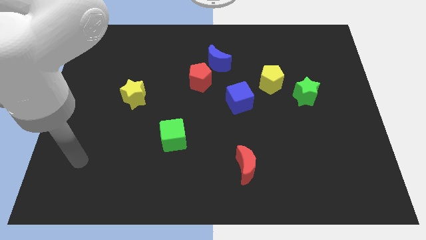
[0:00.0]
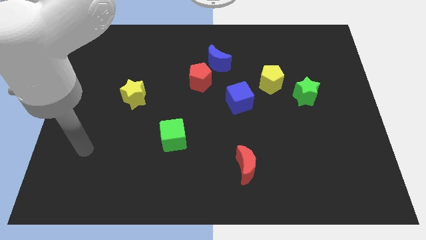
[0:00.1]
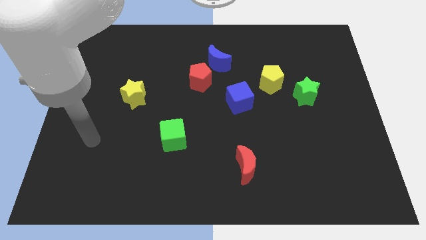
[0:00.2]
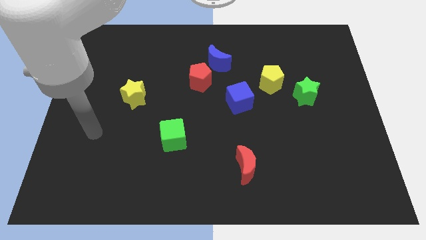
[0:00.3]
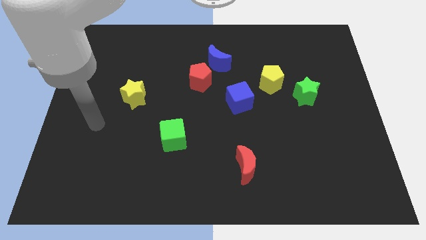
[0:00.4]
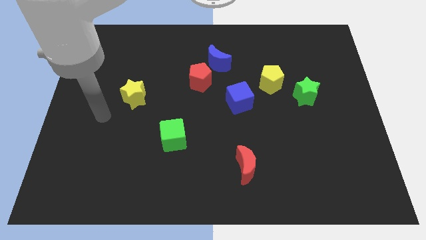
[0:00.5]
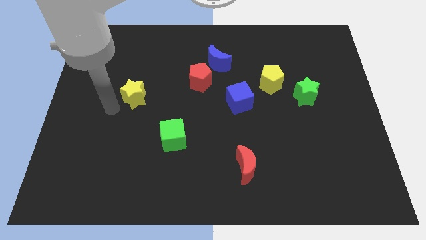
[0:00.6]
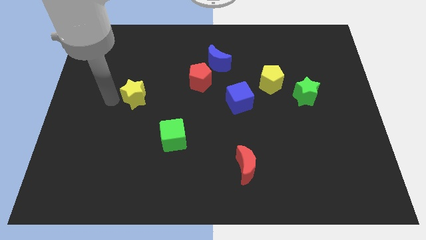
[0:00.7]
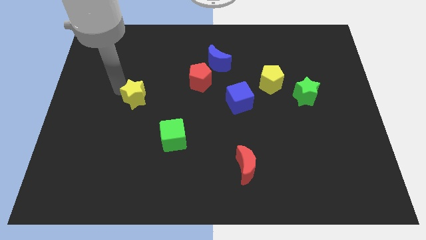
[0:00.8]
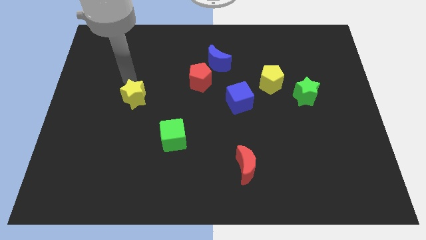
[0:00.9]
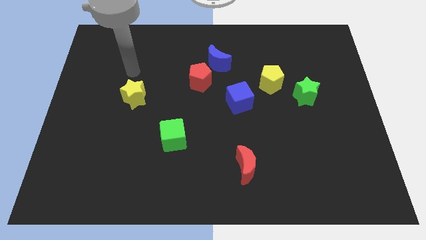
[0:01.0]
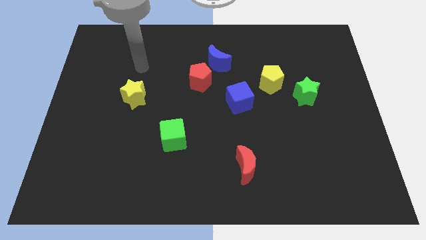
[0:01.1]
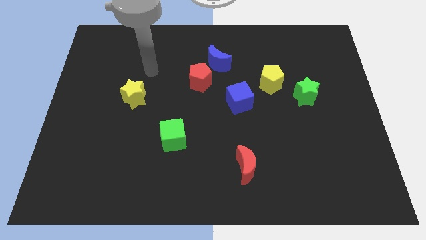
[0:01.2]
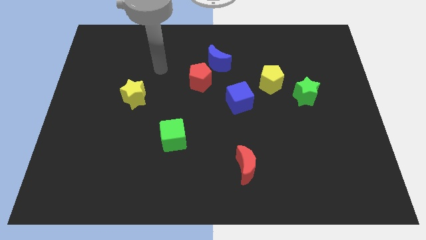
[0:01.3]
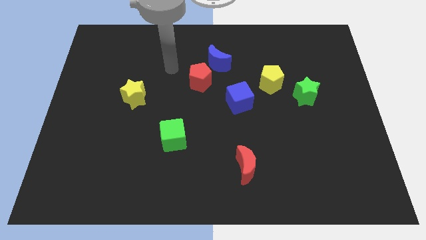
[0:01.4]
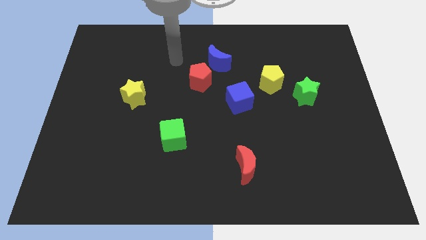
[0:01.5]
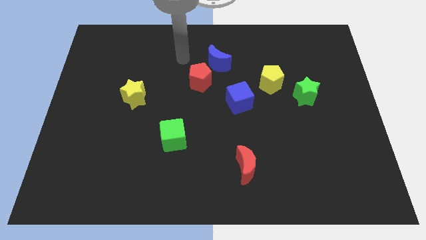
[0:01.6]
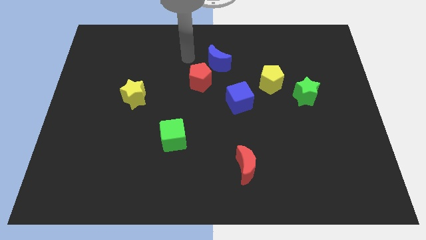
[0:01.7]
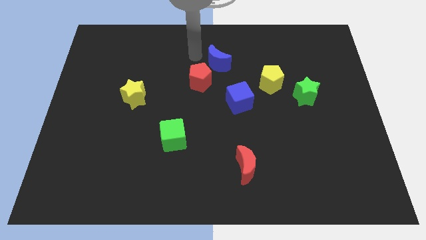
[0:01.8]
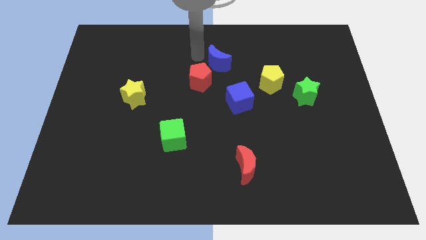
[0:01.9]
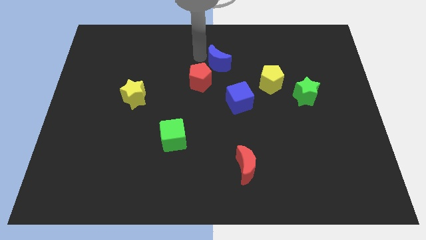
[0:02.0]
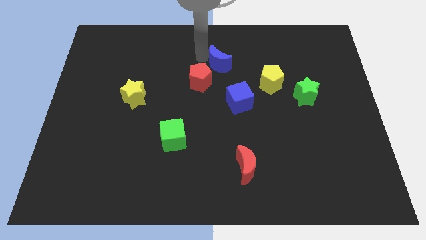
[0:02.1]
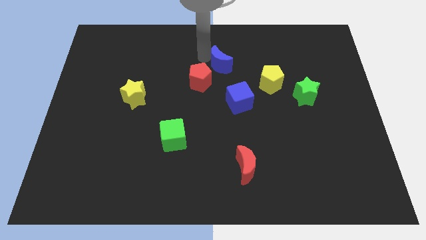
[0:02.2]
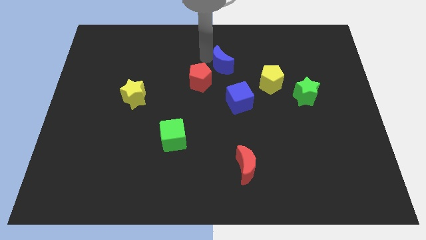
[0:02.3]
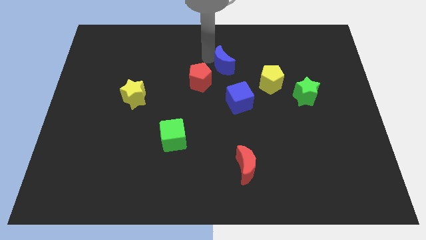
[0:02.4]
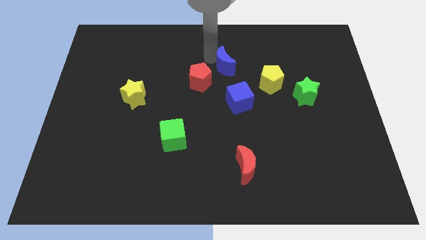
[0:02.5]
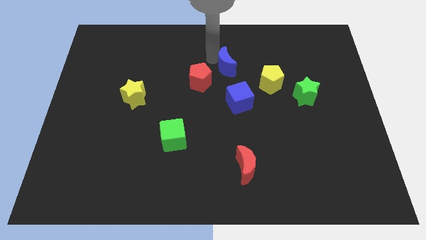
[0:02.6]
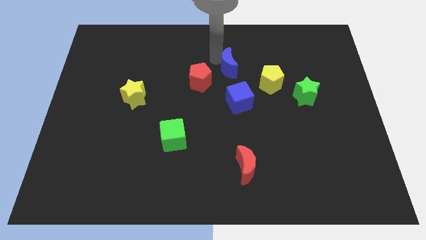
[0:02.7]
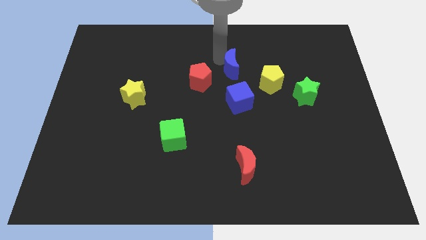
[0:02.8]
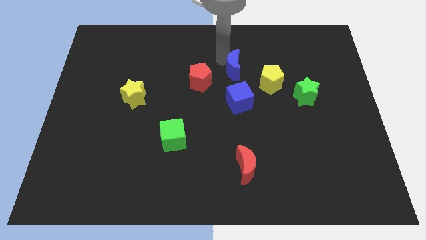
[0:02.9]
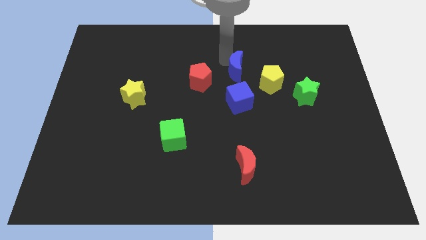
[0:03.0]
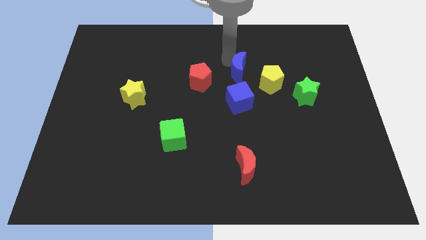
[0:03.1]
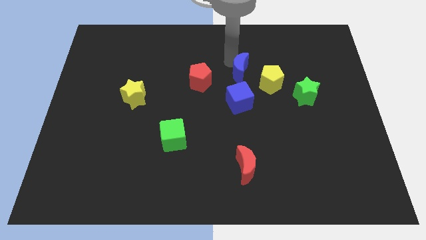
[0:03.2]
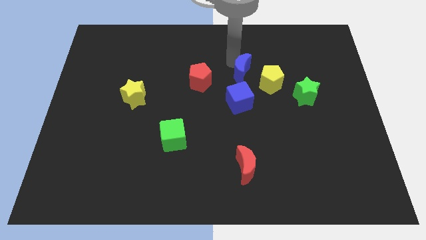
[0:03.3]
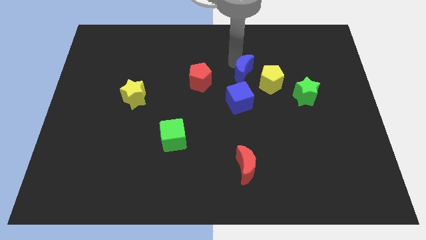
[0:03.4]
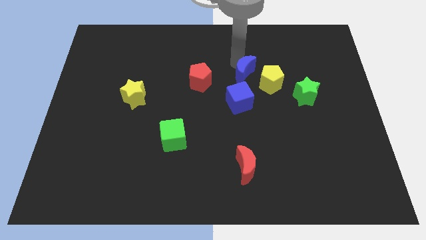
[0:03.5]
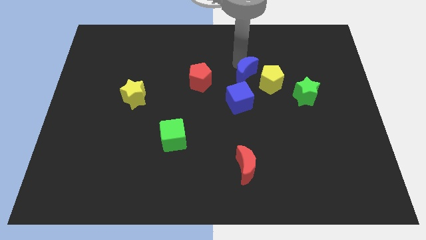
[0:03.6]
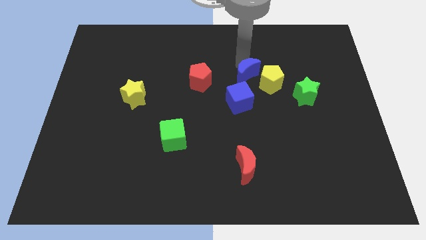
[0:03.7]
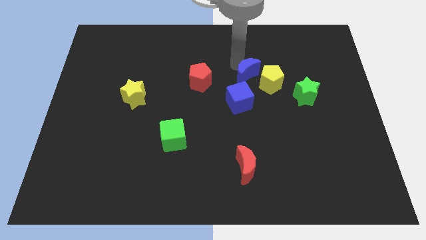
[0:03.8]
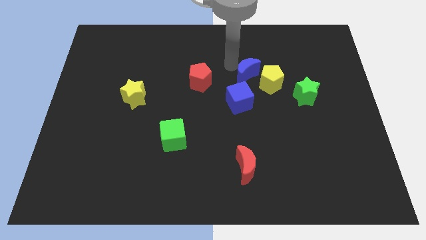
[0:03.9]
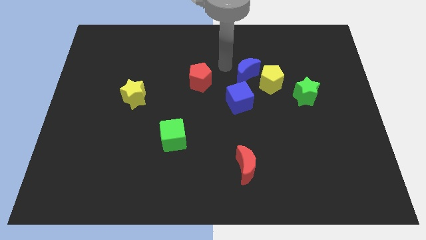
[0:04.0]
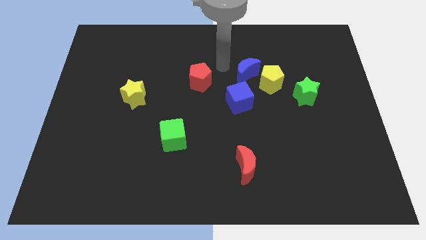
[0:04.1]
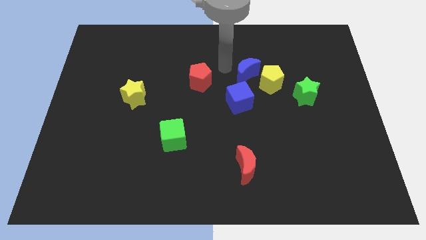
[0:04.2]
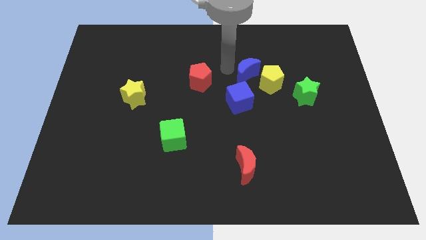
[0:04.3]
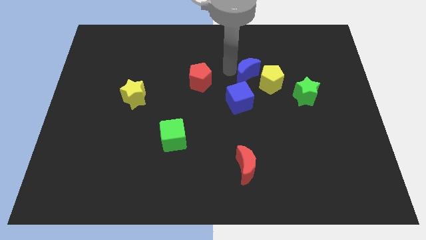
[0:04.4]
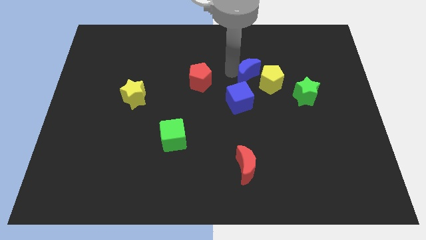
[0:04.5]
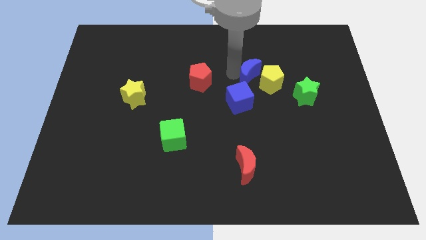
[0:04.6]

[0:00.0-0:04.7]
move the blue moon to the yellow pentagon

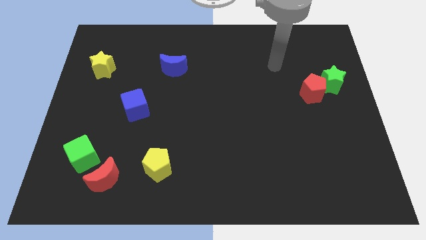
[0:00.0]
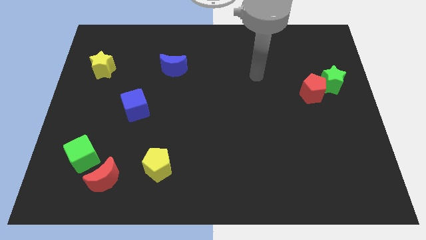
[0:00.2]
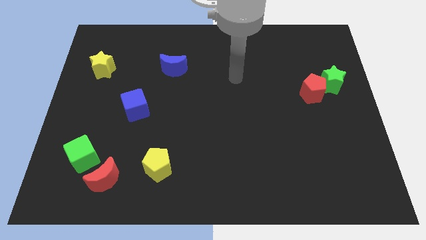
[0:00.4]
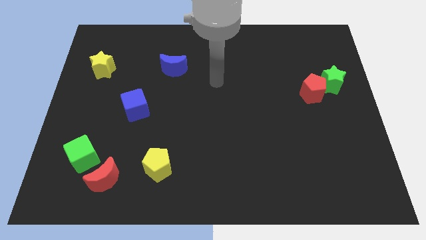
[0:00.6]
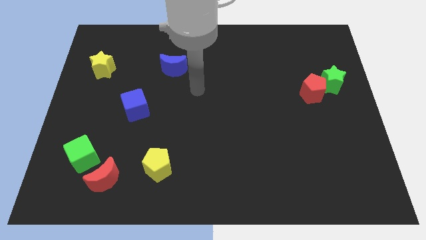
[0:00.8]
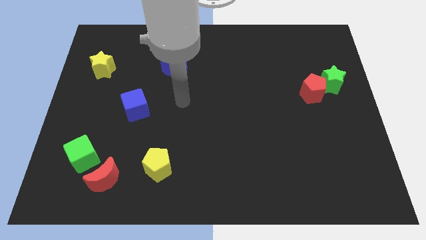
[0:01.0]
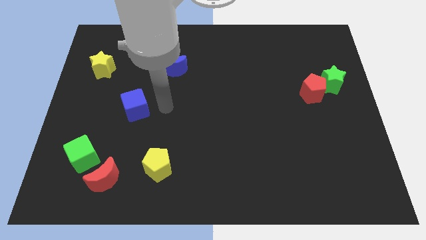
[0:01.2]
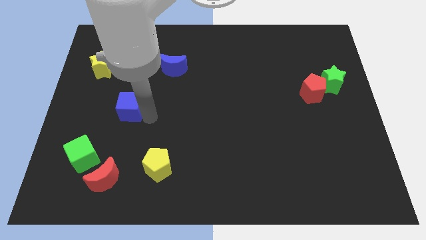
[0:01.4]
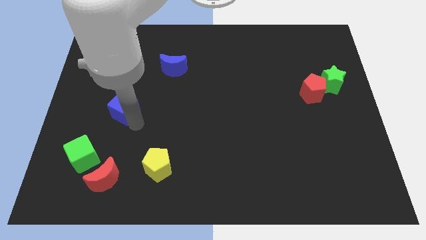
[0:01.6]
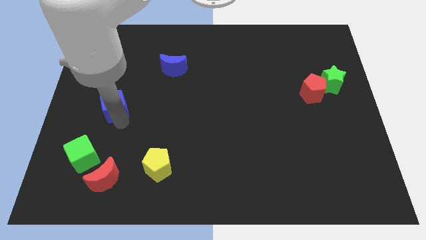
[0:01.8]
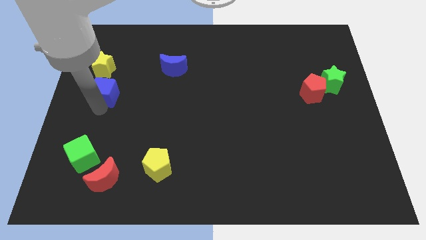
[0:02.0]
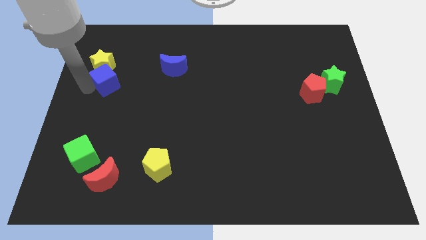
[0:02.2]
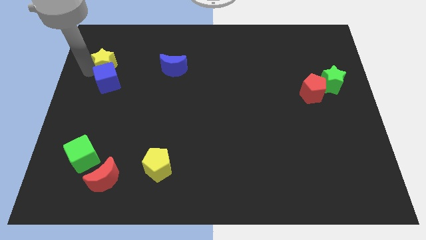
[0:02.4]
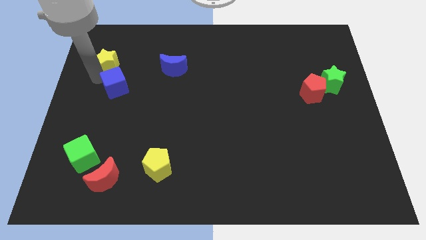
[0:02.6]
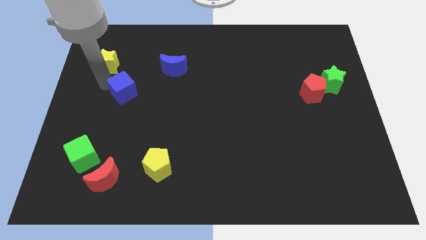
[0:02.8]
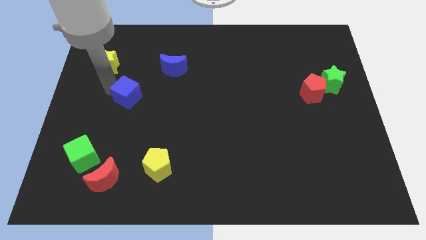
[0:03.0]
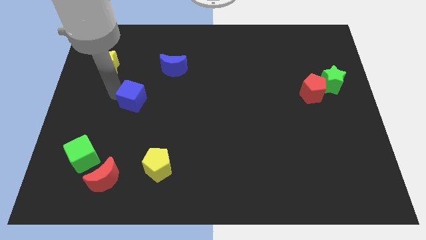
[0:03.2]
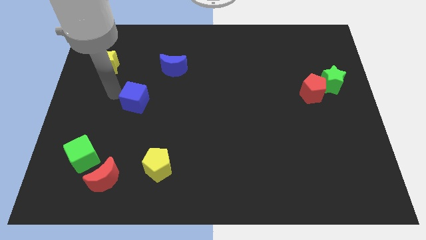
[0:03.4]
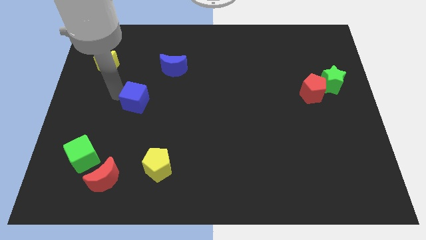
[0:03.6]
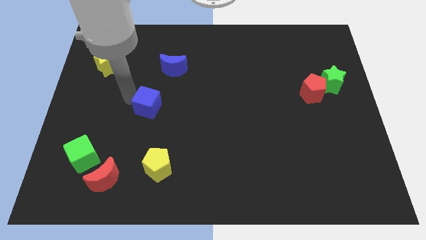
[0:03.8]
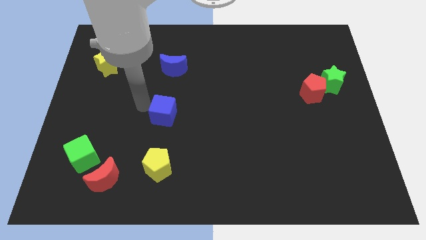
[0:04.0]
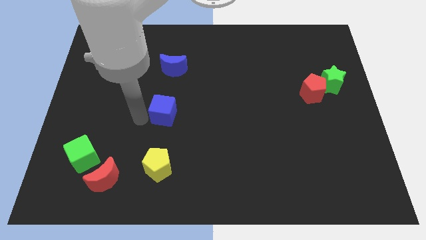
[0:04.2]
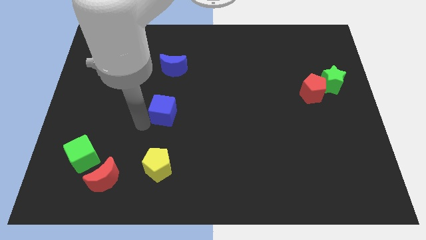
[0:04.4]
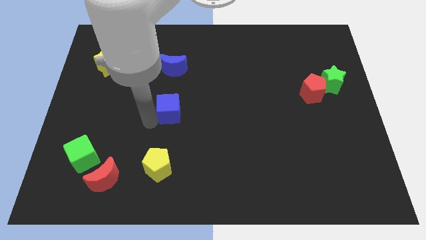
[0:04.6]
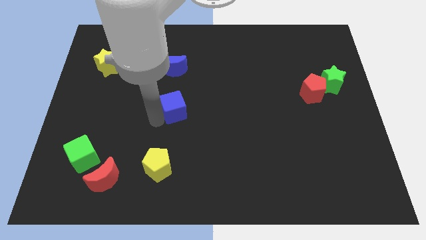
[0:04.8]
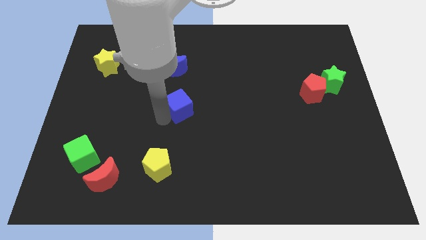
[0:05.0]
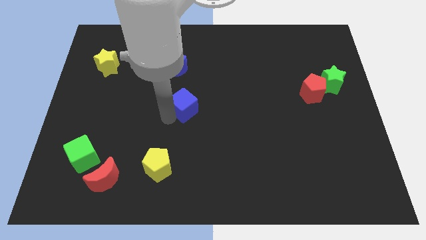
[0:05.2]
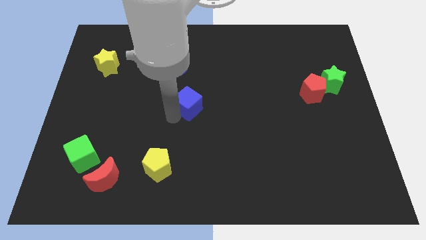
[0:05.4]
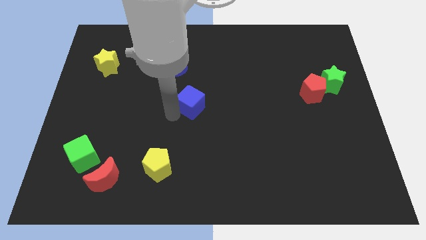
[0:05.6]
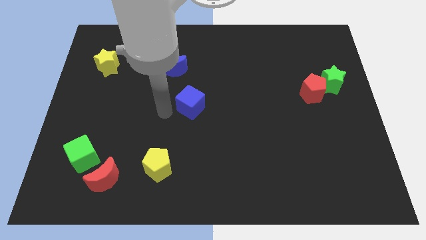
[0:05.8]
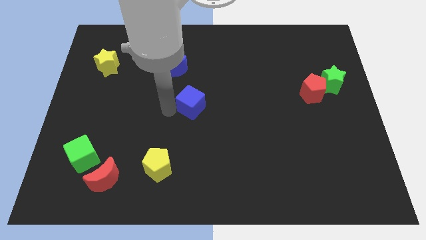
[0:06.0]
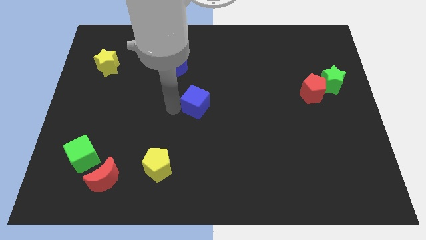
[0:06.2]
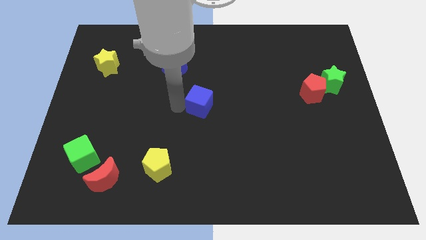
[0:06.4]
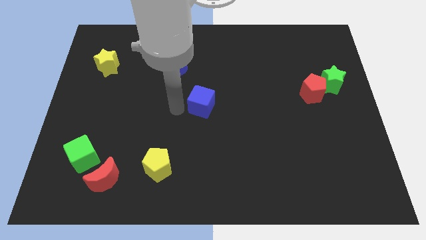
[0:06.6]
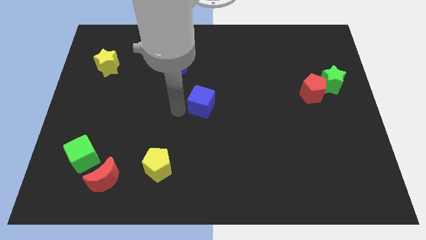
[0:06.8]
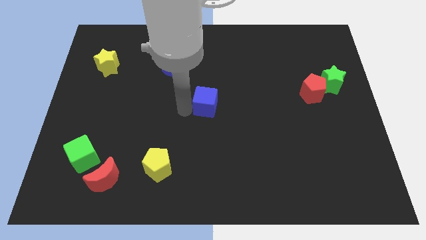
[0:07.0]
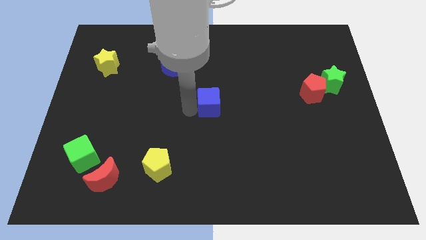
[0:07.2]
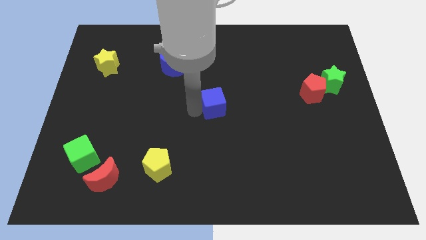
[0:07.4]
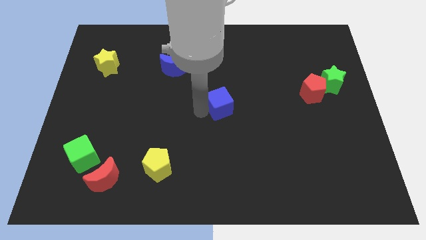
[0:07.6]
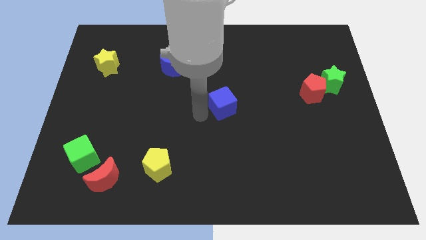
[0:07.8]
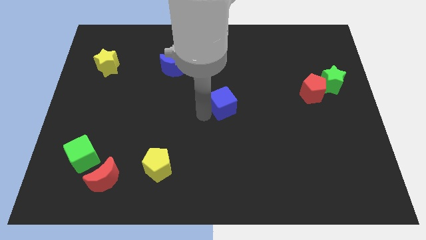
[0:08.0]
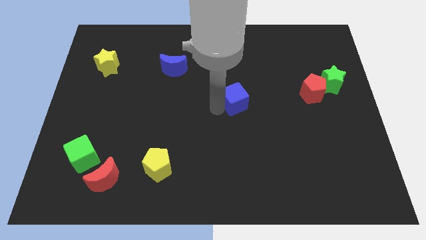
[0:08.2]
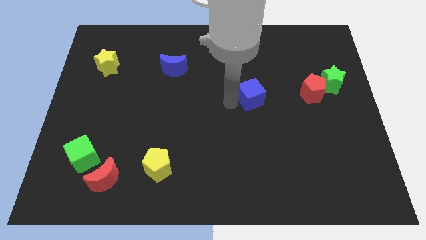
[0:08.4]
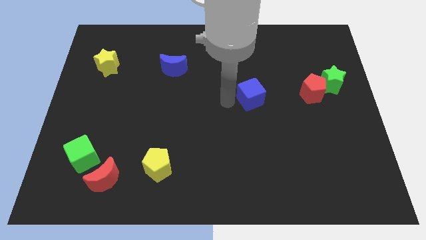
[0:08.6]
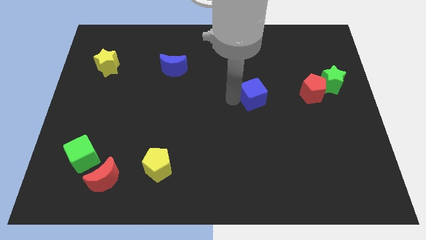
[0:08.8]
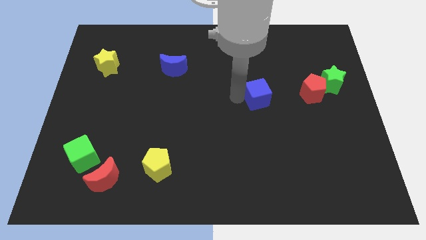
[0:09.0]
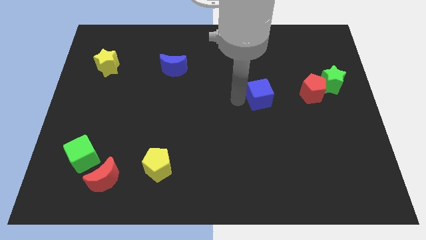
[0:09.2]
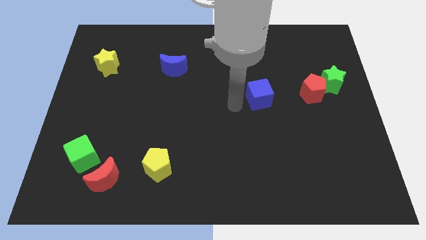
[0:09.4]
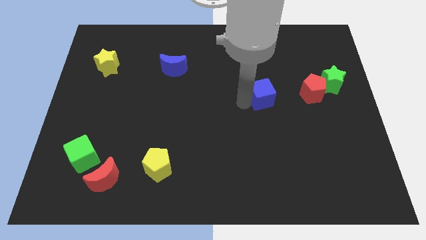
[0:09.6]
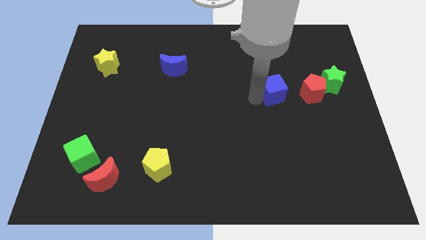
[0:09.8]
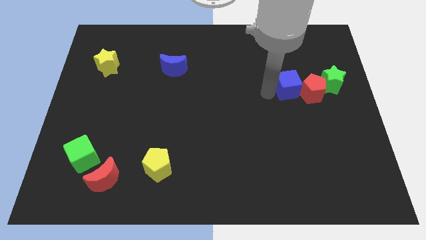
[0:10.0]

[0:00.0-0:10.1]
push the blue cube close to the red pentagon
